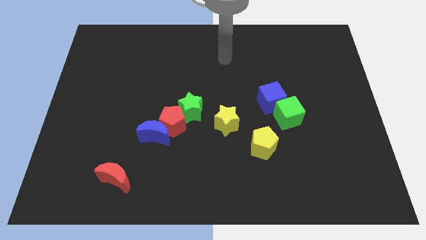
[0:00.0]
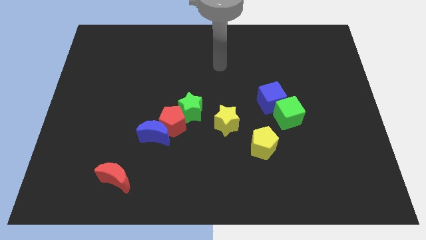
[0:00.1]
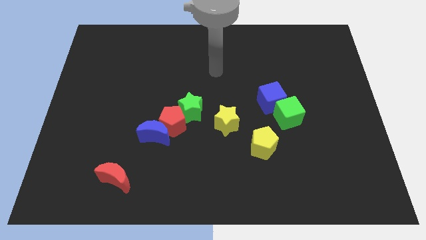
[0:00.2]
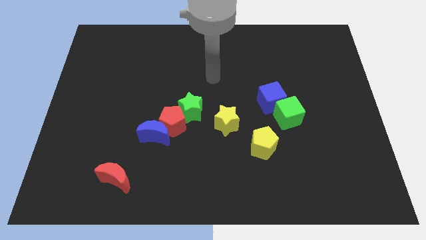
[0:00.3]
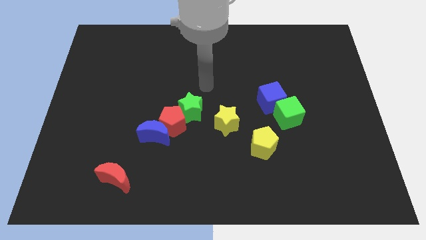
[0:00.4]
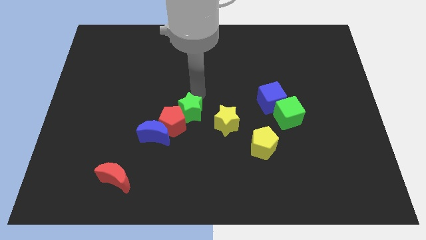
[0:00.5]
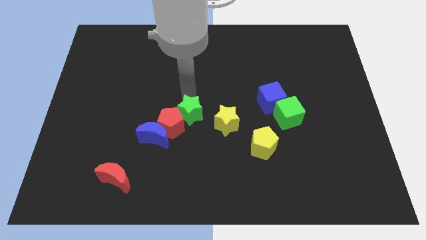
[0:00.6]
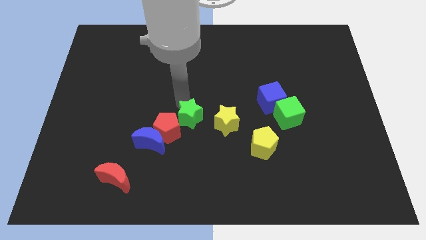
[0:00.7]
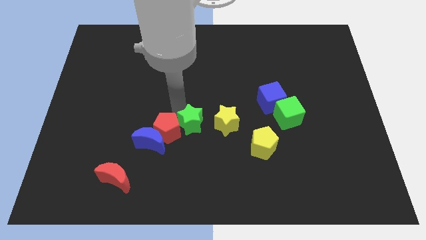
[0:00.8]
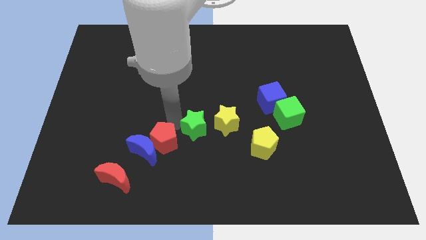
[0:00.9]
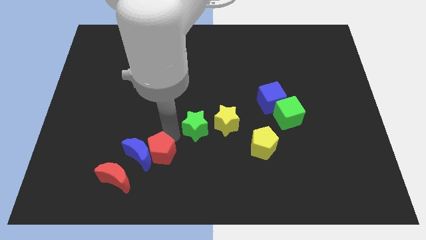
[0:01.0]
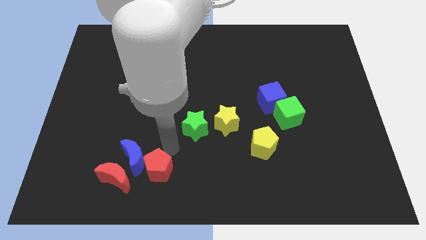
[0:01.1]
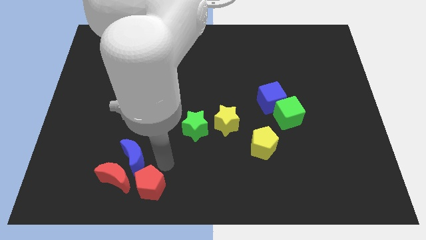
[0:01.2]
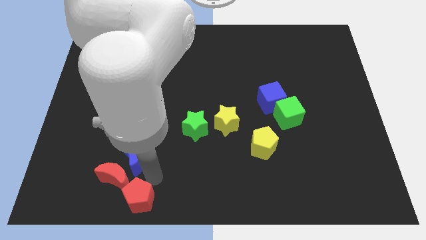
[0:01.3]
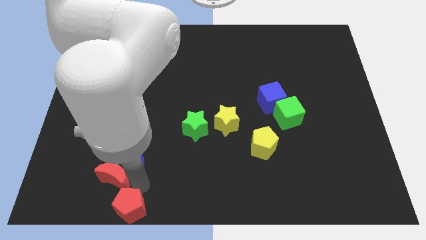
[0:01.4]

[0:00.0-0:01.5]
separate the blue moon from the red pentagon

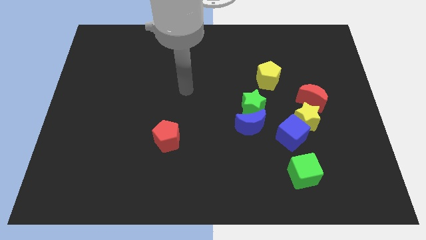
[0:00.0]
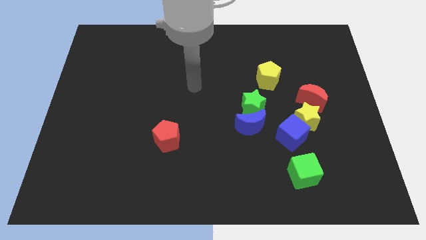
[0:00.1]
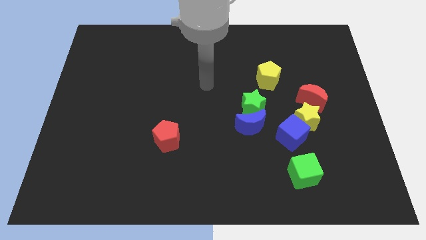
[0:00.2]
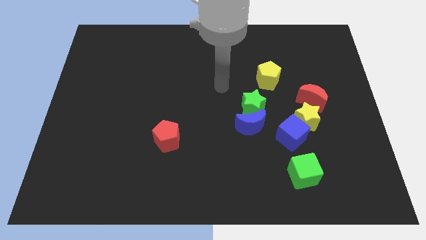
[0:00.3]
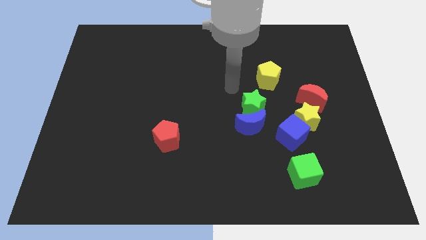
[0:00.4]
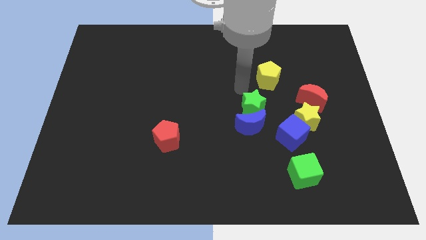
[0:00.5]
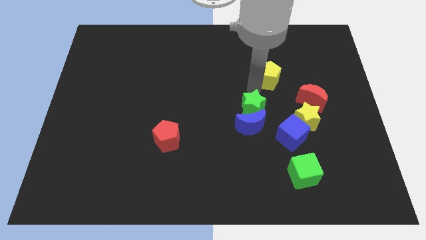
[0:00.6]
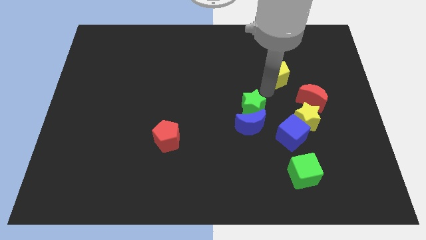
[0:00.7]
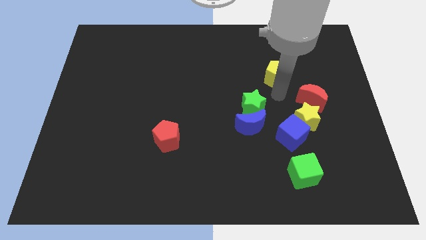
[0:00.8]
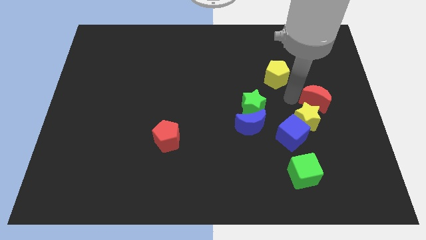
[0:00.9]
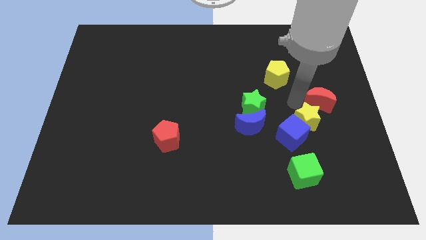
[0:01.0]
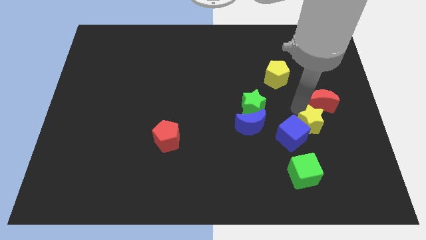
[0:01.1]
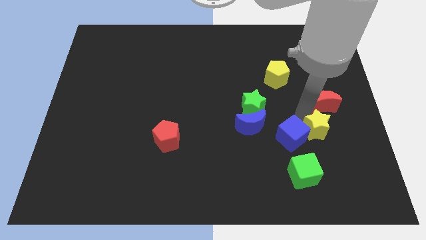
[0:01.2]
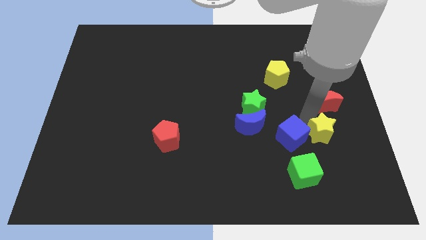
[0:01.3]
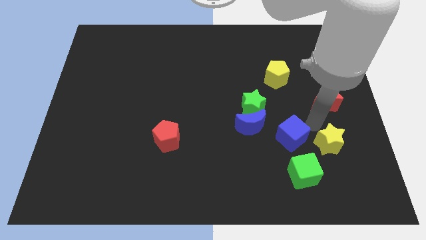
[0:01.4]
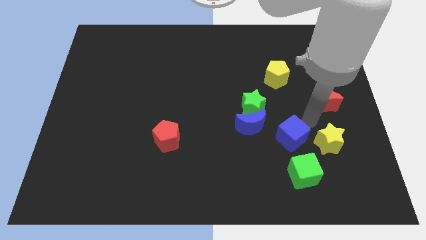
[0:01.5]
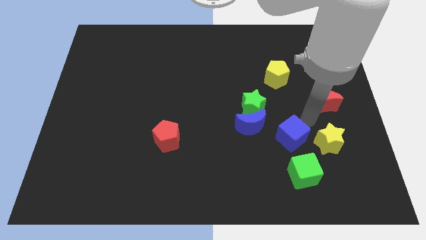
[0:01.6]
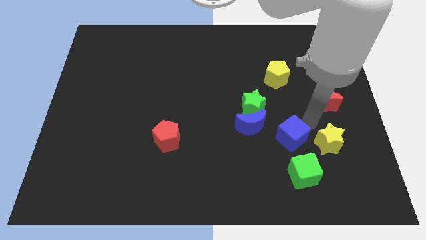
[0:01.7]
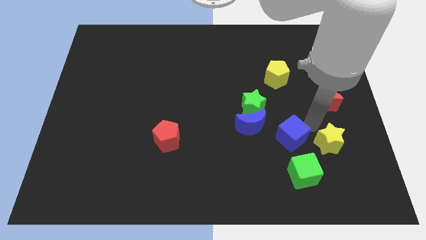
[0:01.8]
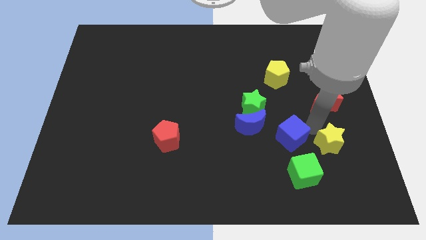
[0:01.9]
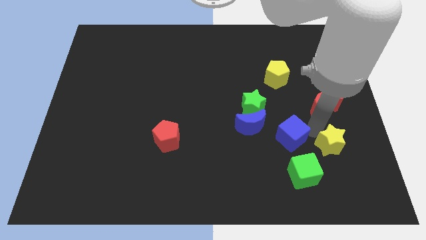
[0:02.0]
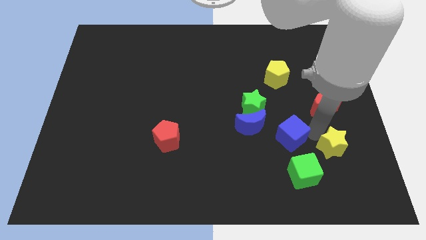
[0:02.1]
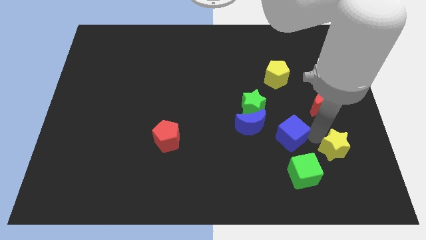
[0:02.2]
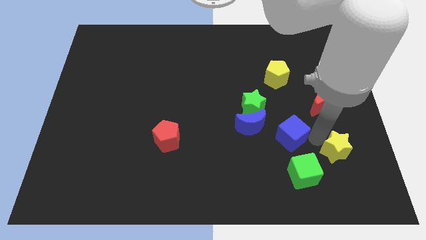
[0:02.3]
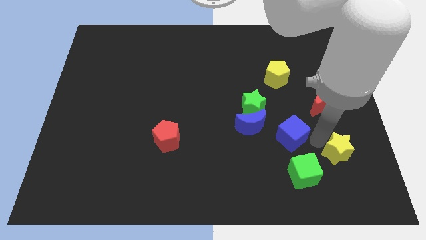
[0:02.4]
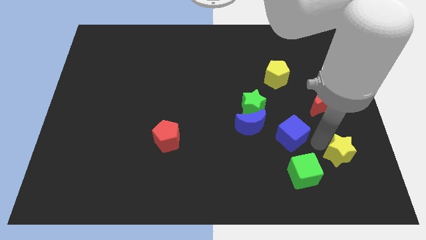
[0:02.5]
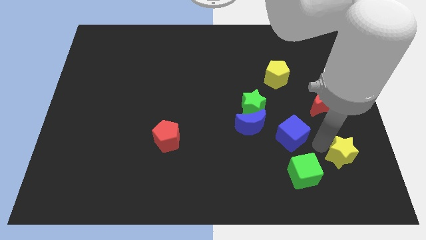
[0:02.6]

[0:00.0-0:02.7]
move the yellow star away from the blue cube and red moon

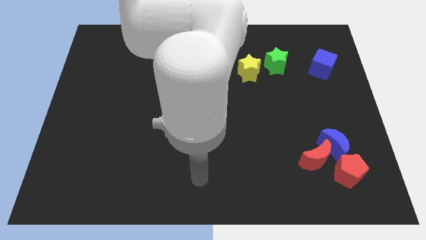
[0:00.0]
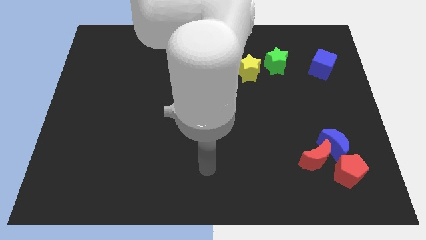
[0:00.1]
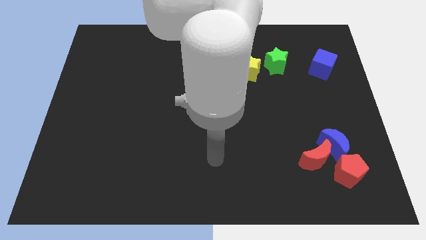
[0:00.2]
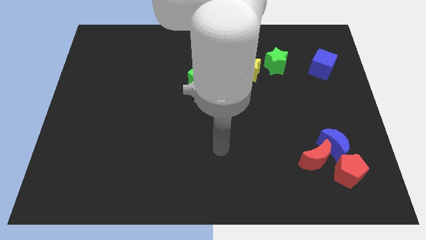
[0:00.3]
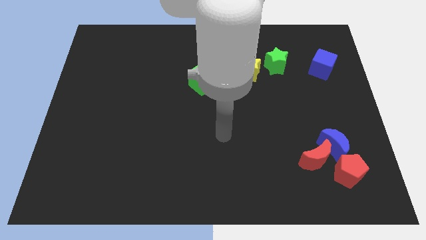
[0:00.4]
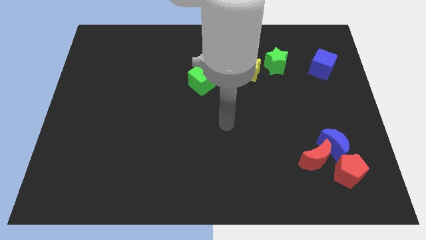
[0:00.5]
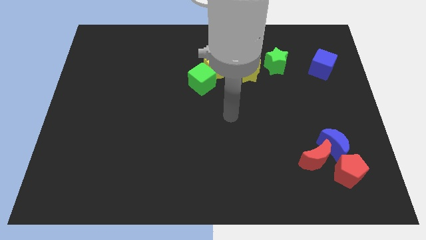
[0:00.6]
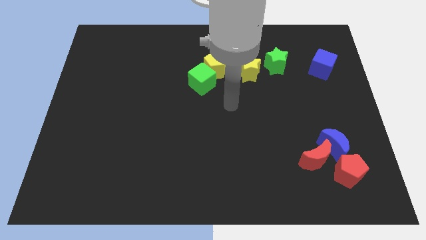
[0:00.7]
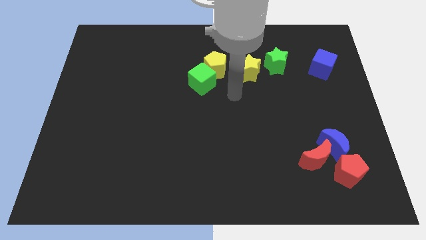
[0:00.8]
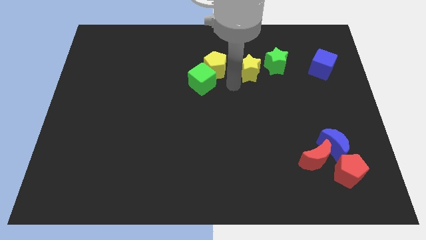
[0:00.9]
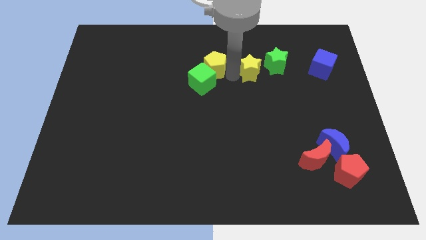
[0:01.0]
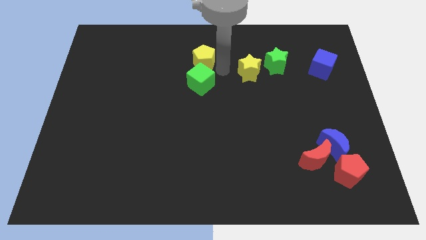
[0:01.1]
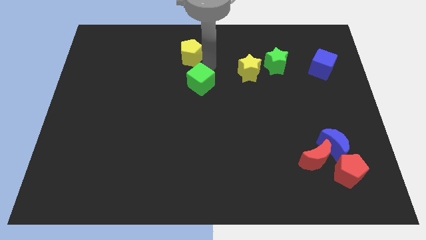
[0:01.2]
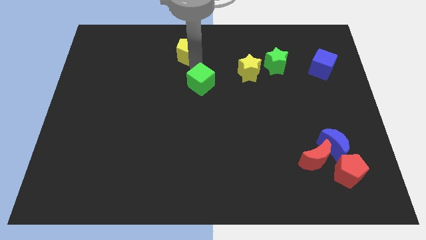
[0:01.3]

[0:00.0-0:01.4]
pull the green cube apart from the yellow pentagon

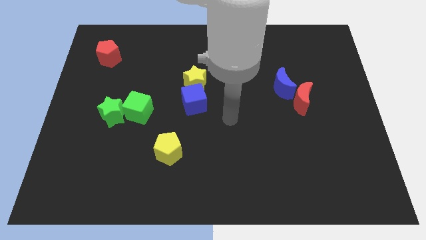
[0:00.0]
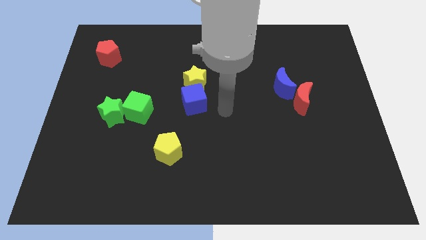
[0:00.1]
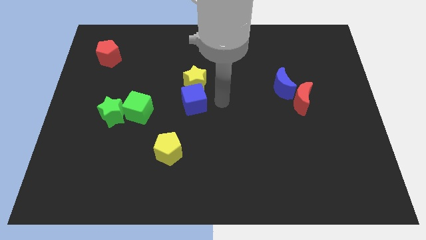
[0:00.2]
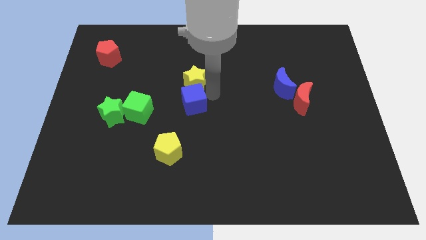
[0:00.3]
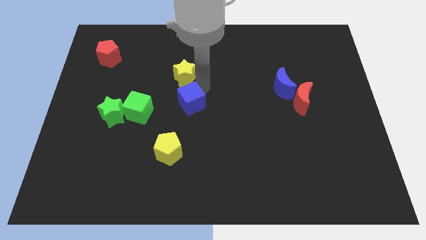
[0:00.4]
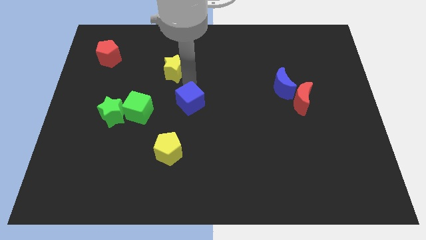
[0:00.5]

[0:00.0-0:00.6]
move the blue cube away from the yellow star

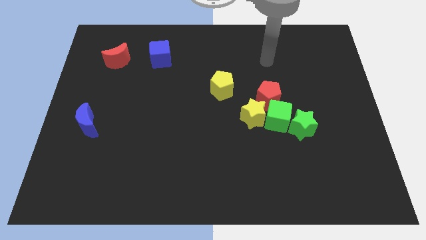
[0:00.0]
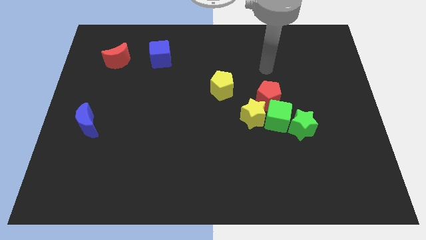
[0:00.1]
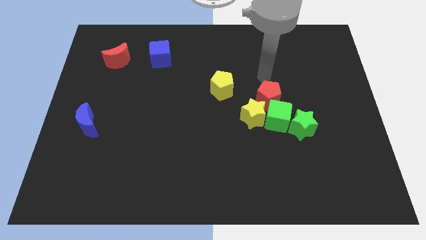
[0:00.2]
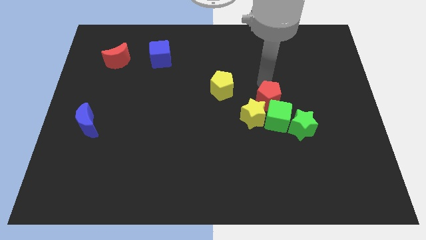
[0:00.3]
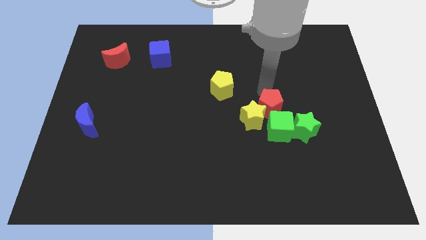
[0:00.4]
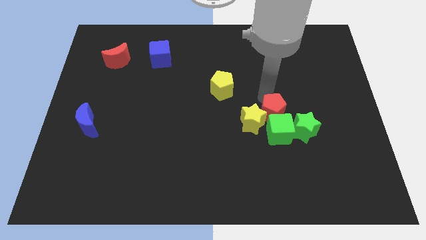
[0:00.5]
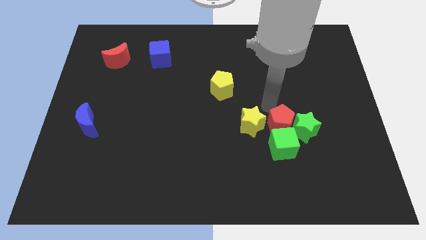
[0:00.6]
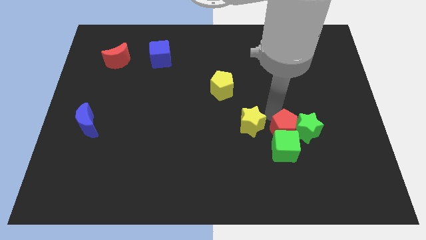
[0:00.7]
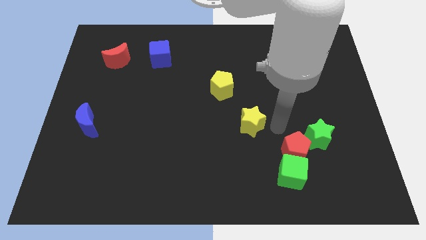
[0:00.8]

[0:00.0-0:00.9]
separate the green star from the green cube

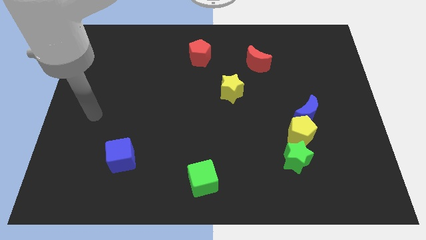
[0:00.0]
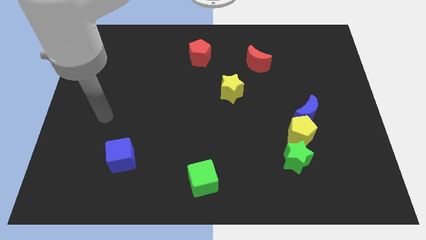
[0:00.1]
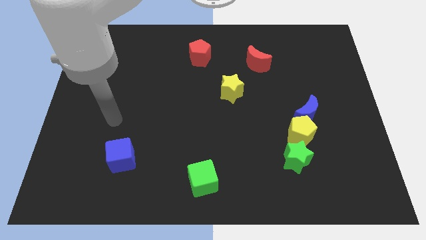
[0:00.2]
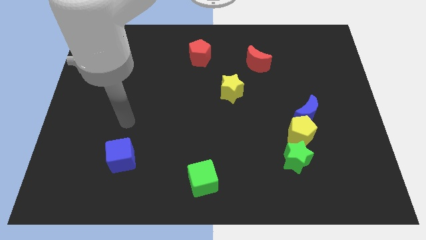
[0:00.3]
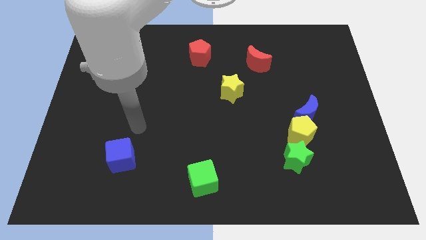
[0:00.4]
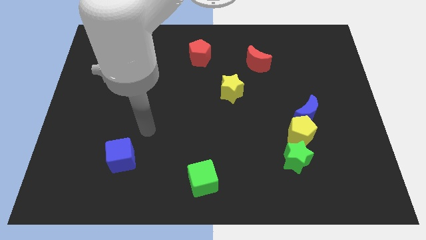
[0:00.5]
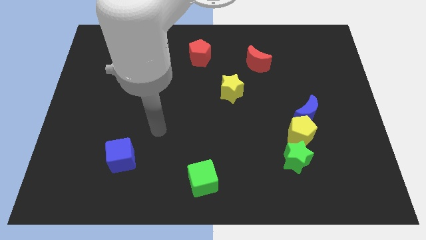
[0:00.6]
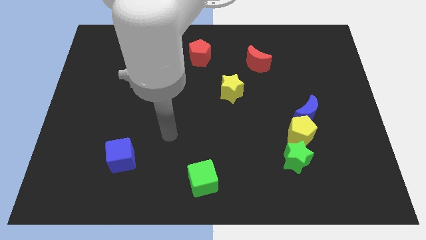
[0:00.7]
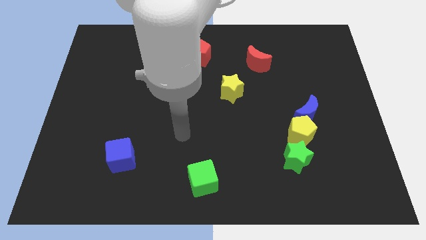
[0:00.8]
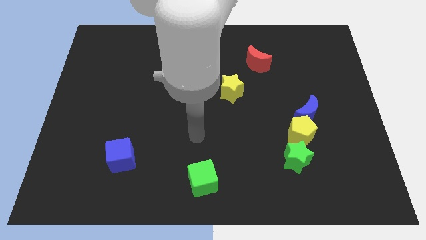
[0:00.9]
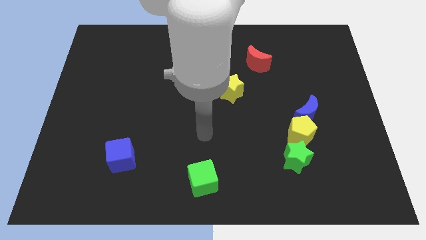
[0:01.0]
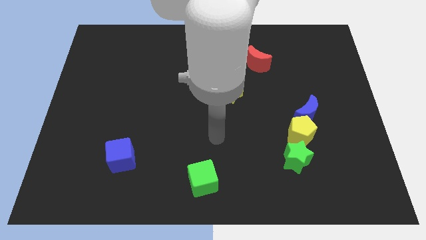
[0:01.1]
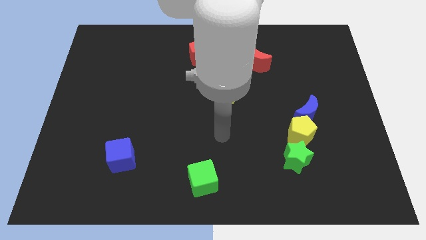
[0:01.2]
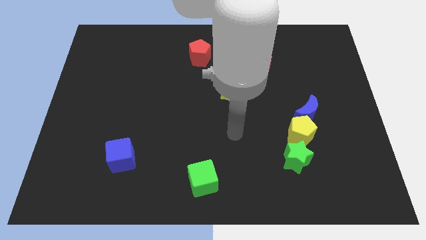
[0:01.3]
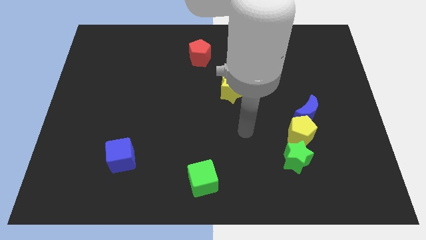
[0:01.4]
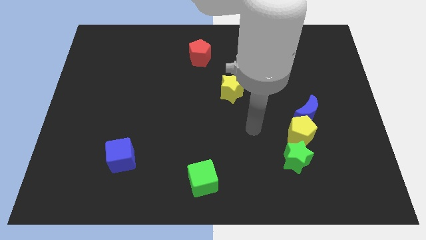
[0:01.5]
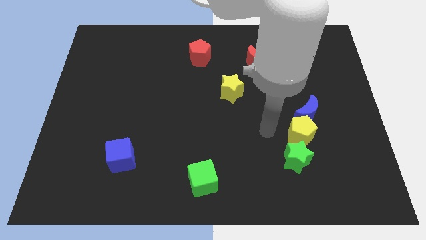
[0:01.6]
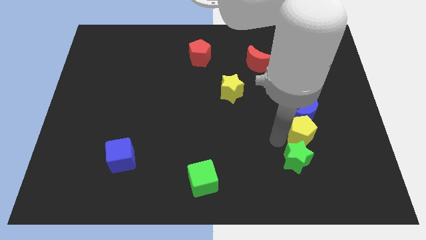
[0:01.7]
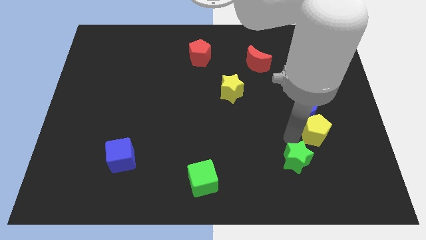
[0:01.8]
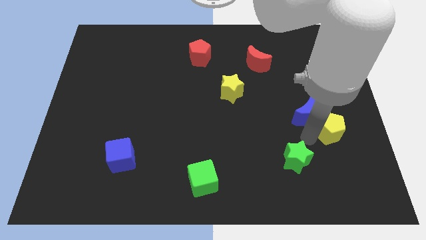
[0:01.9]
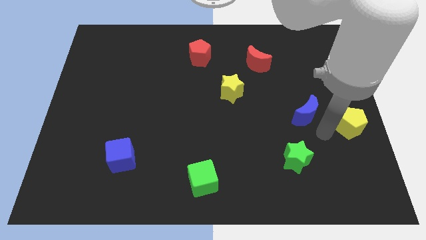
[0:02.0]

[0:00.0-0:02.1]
separate the blue moon from the yellow pentagon

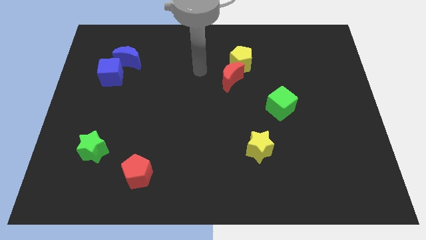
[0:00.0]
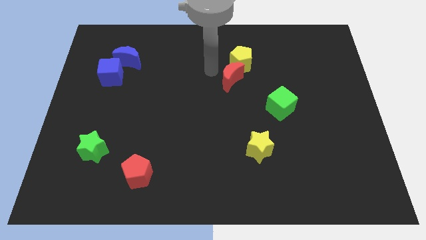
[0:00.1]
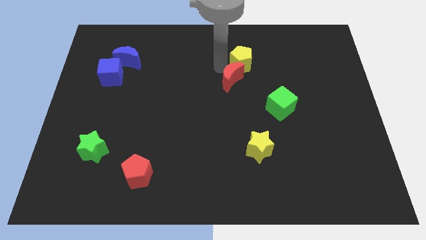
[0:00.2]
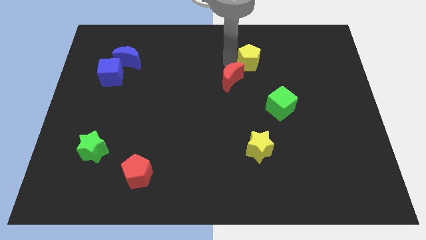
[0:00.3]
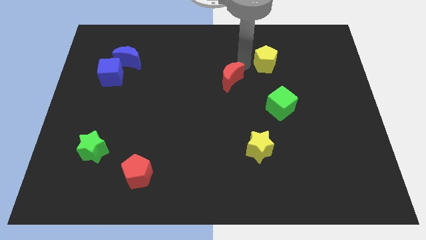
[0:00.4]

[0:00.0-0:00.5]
move the red moon away from the yellow pentagon
